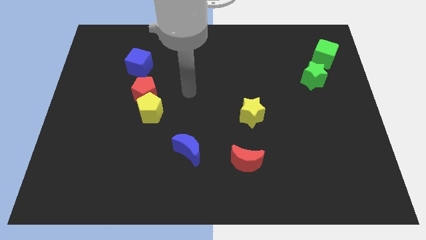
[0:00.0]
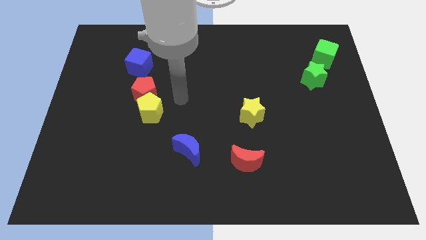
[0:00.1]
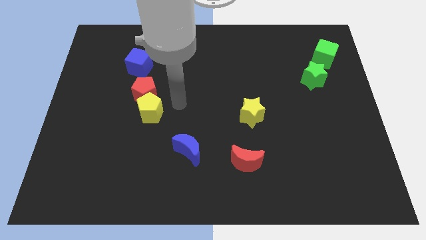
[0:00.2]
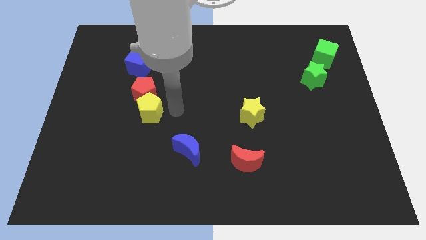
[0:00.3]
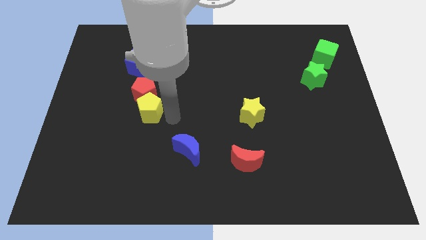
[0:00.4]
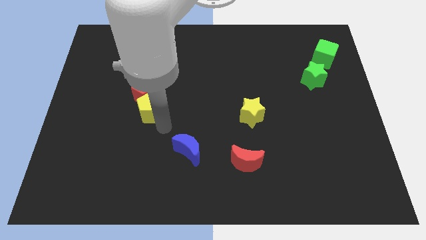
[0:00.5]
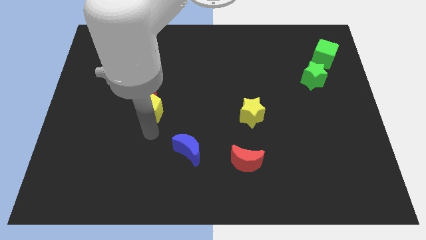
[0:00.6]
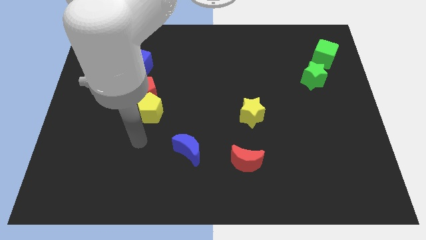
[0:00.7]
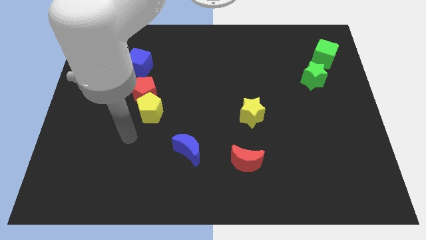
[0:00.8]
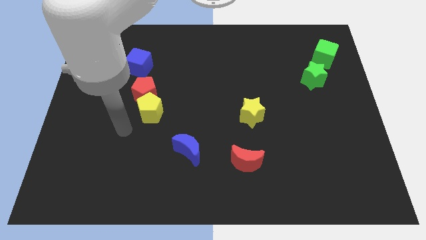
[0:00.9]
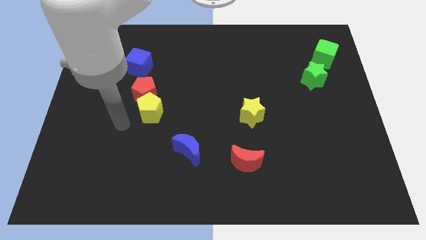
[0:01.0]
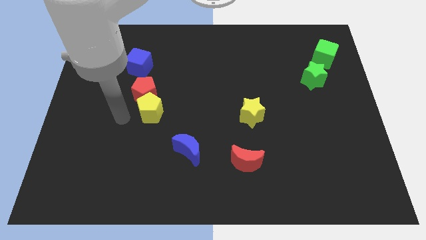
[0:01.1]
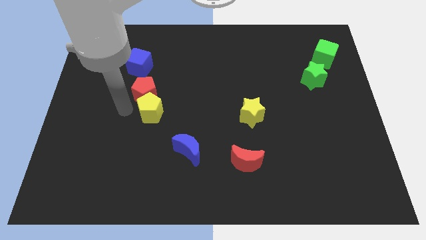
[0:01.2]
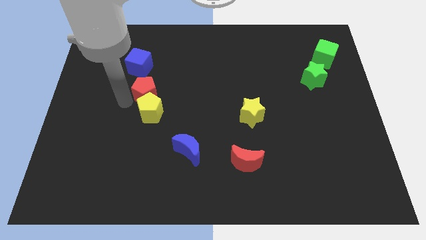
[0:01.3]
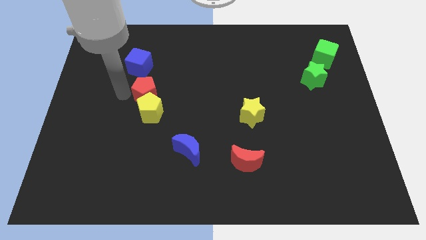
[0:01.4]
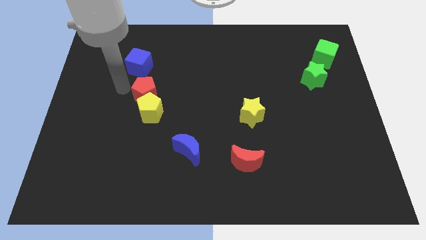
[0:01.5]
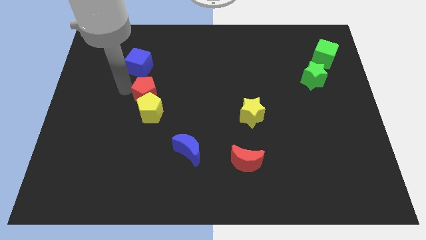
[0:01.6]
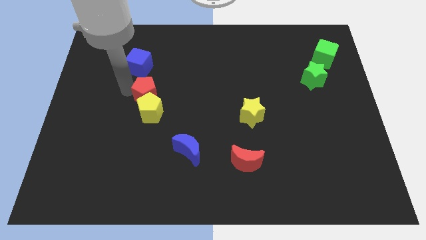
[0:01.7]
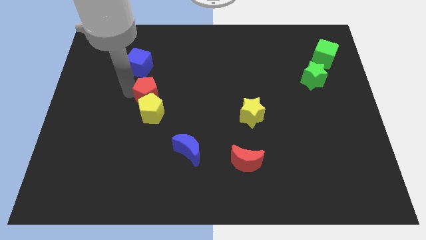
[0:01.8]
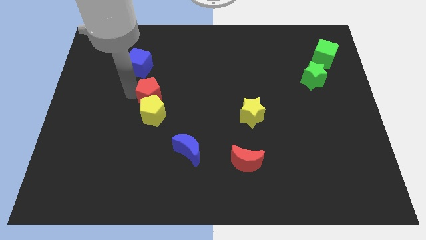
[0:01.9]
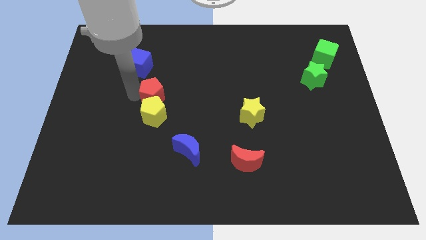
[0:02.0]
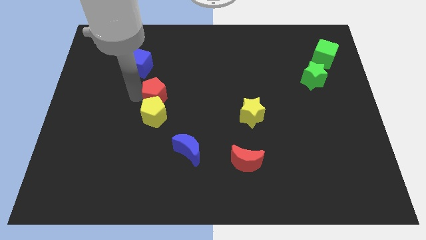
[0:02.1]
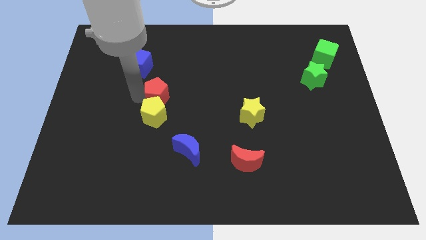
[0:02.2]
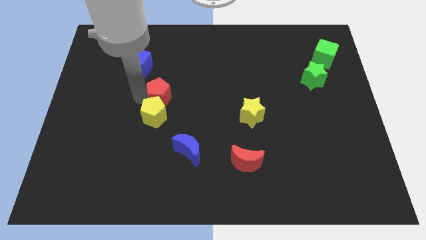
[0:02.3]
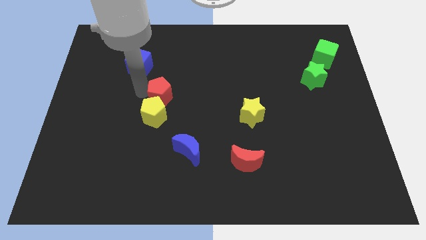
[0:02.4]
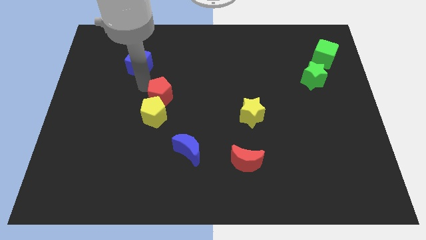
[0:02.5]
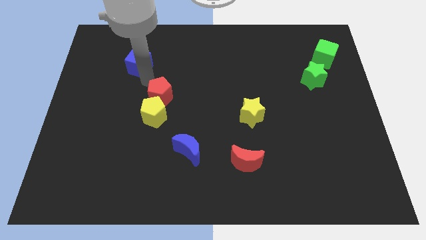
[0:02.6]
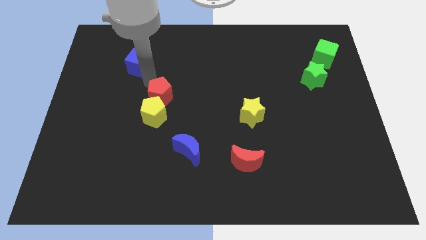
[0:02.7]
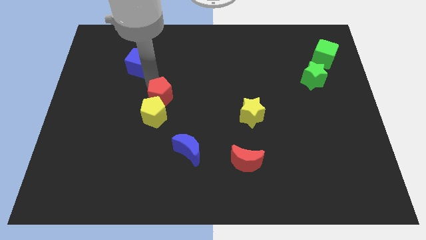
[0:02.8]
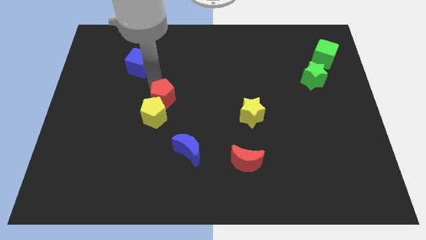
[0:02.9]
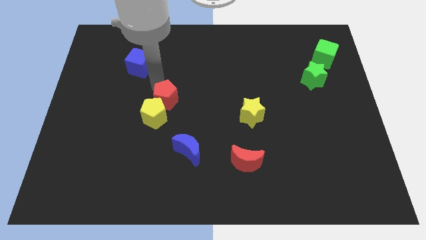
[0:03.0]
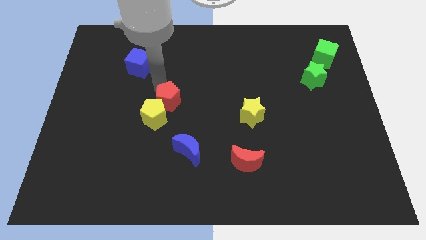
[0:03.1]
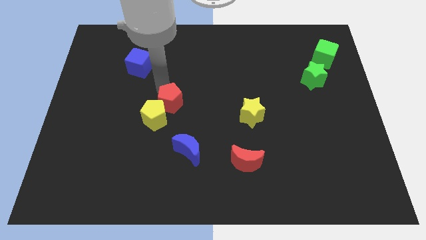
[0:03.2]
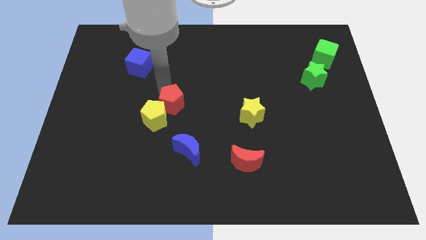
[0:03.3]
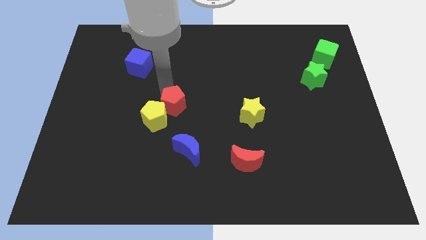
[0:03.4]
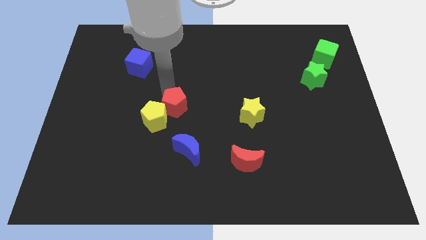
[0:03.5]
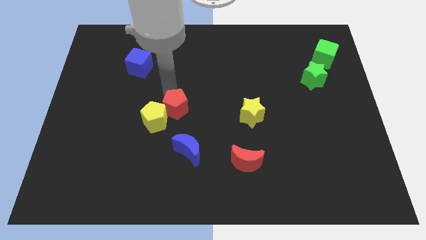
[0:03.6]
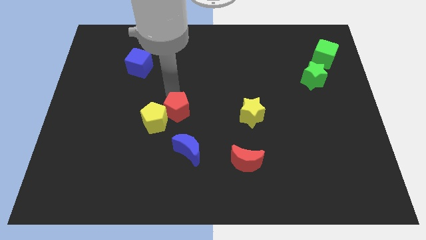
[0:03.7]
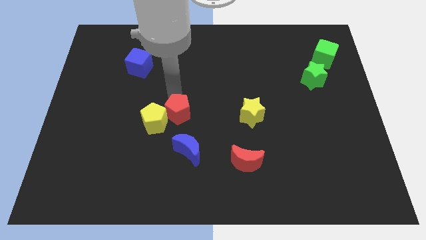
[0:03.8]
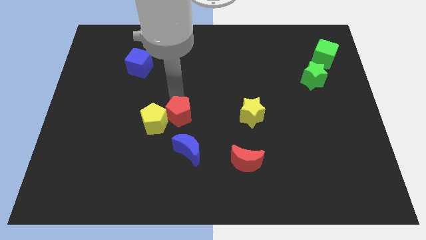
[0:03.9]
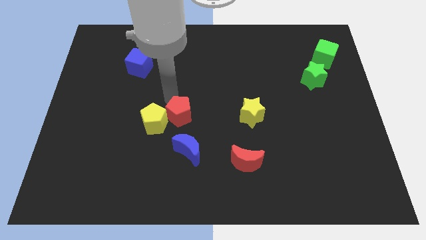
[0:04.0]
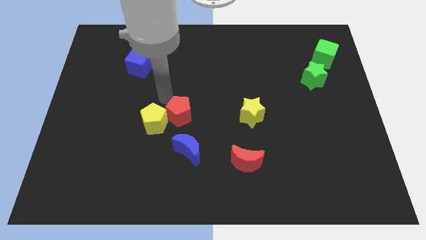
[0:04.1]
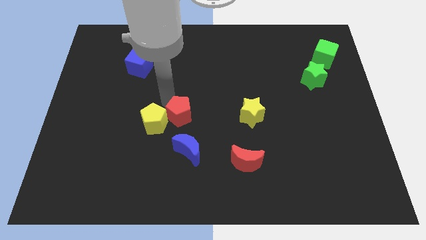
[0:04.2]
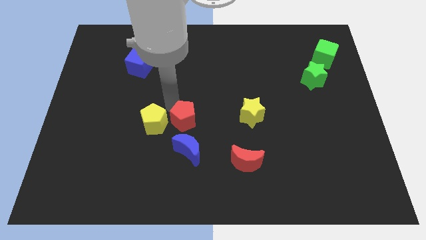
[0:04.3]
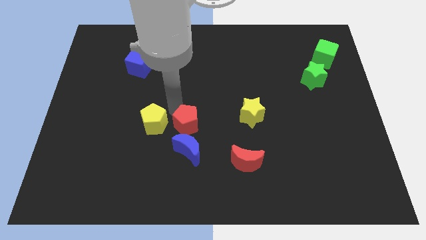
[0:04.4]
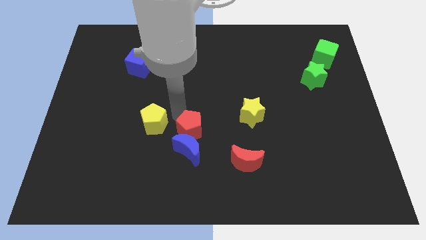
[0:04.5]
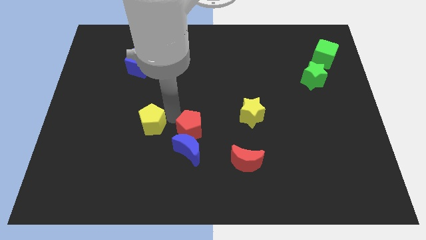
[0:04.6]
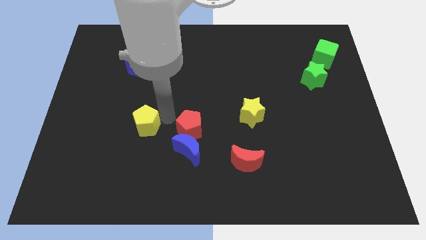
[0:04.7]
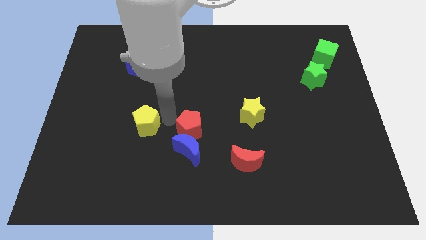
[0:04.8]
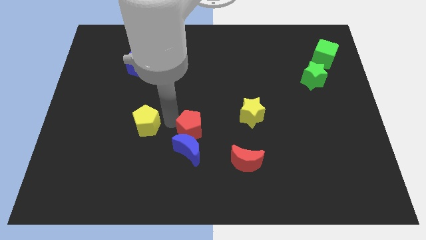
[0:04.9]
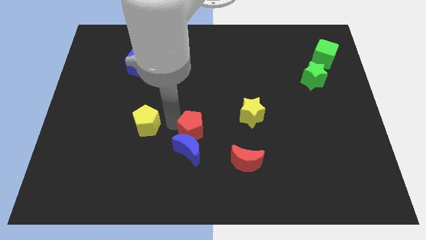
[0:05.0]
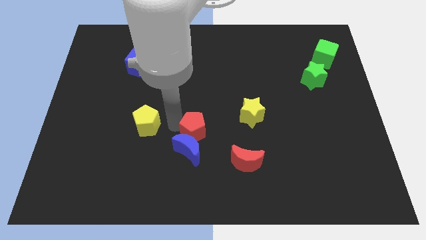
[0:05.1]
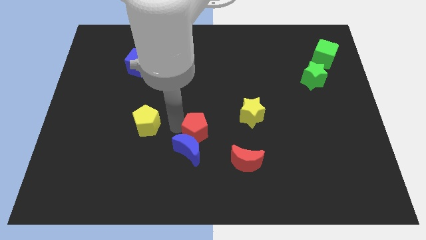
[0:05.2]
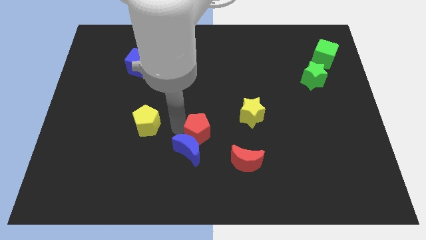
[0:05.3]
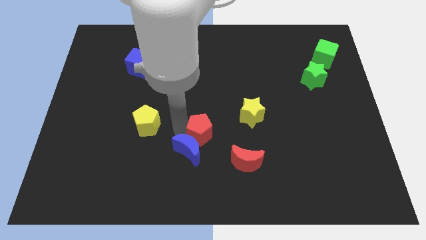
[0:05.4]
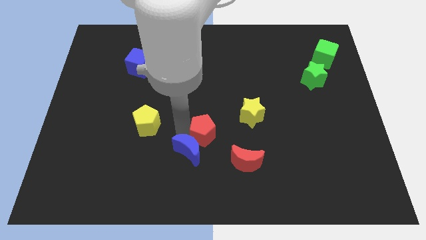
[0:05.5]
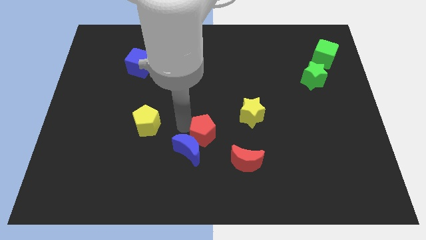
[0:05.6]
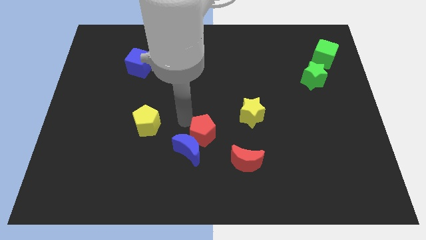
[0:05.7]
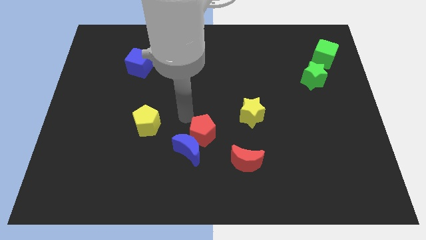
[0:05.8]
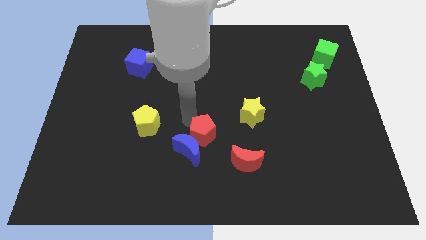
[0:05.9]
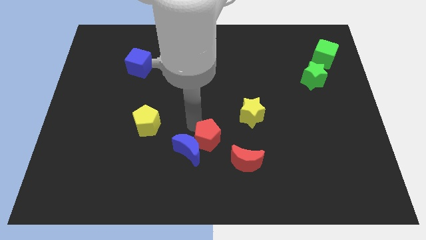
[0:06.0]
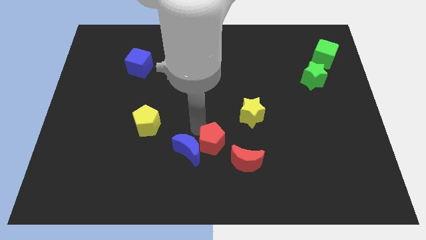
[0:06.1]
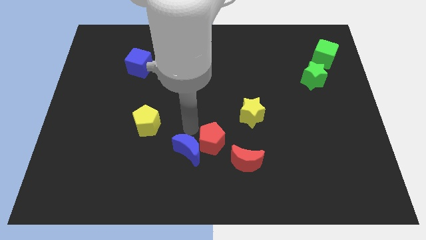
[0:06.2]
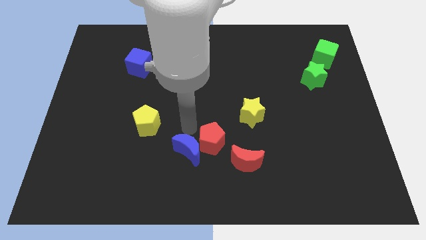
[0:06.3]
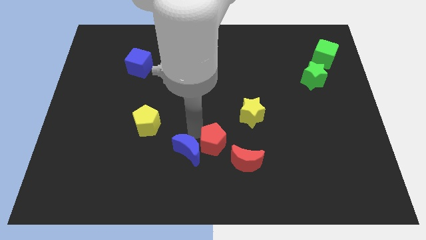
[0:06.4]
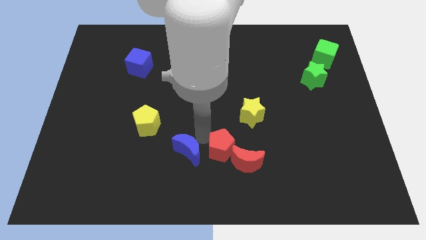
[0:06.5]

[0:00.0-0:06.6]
put the red pentagon next to the red moon
